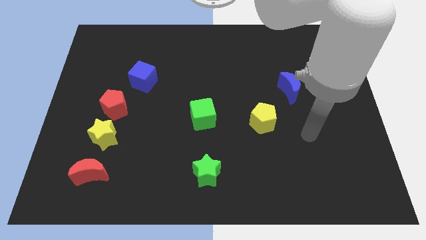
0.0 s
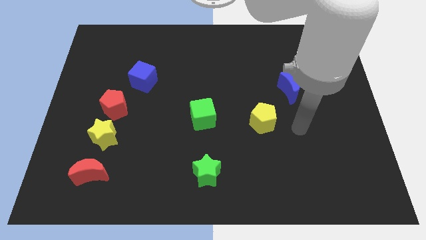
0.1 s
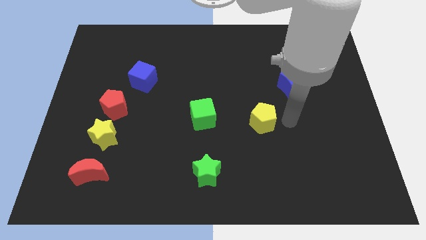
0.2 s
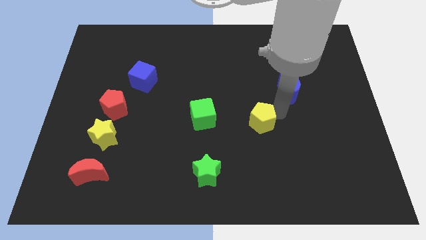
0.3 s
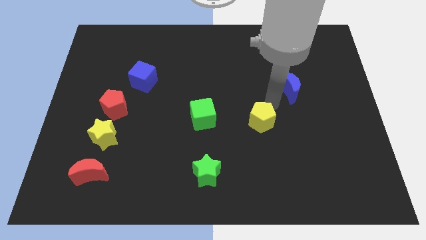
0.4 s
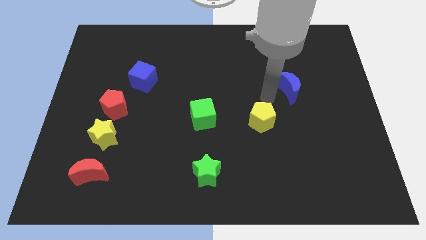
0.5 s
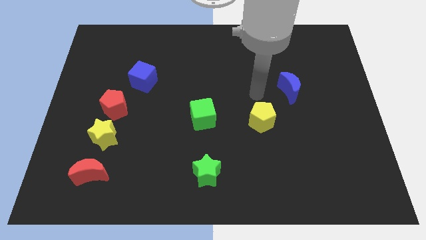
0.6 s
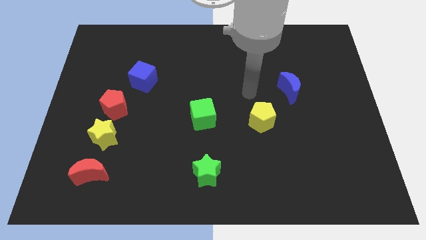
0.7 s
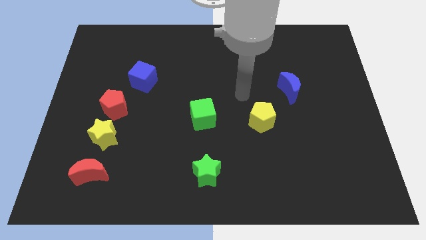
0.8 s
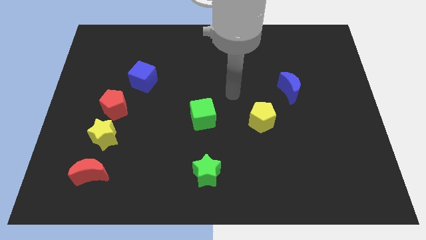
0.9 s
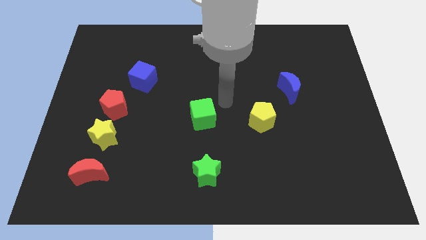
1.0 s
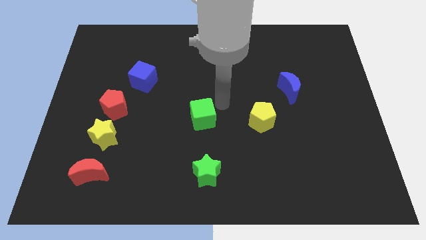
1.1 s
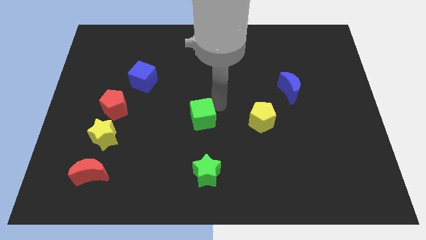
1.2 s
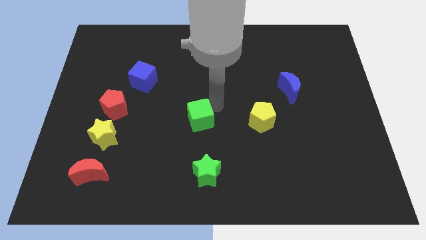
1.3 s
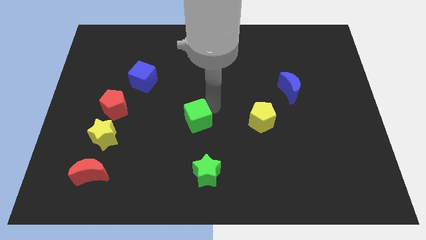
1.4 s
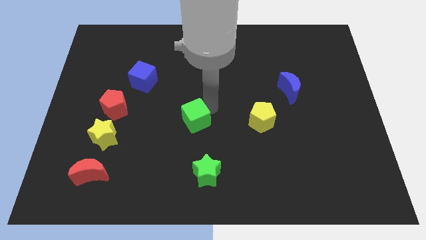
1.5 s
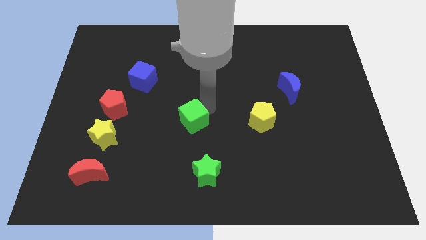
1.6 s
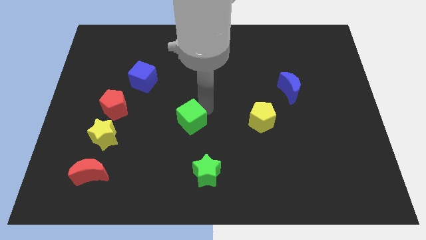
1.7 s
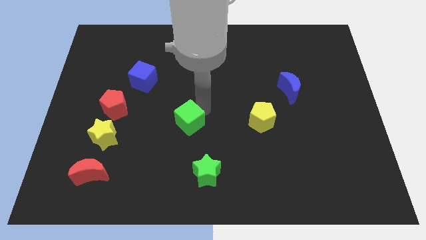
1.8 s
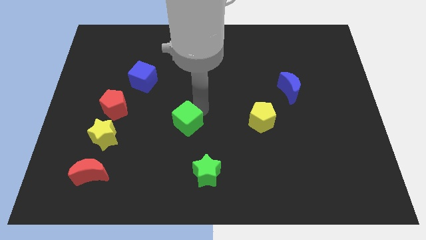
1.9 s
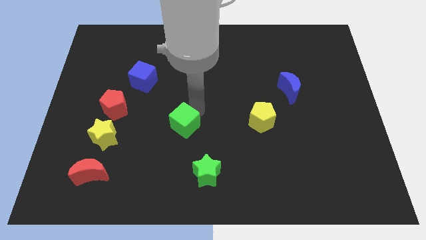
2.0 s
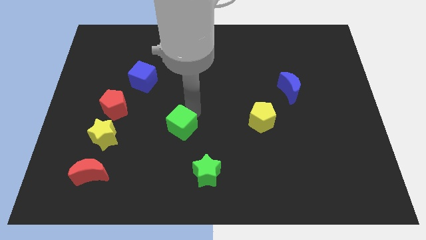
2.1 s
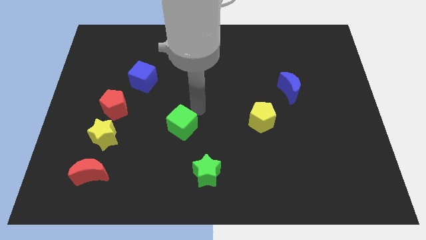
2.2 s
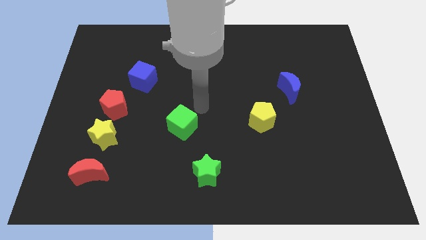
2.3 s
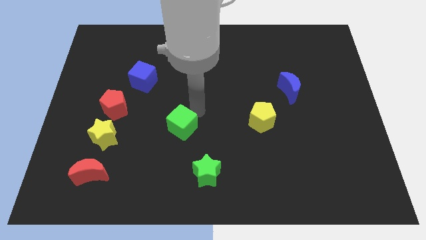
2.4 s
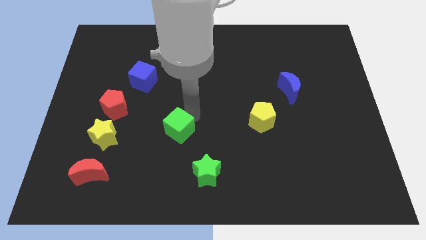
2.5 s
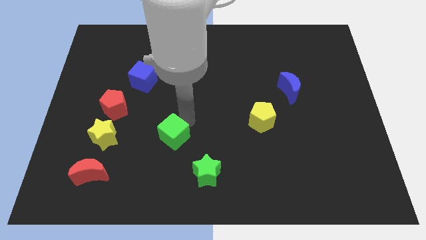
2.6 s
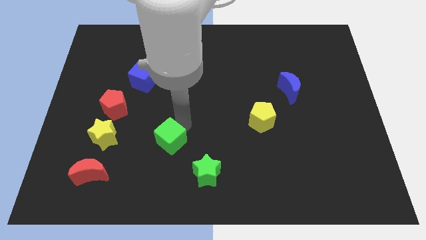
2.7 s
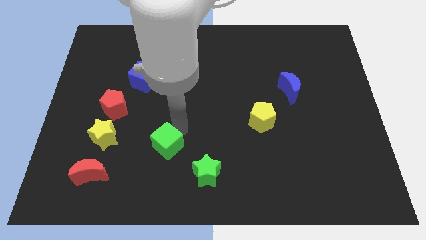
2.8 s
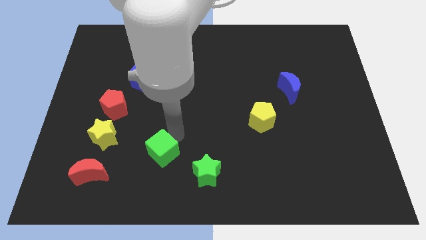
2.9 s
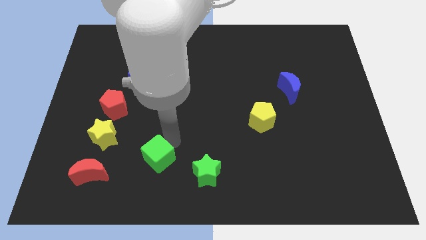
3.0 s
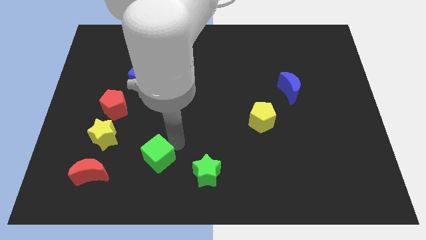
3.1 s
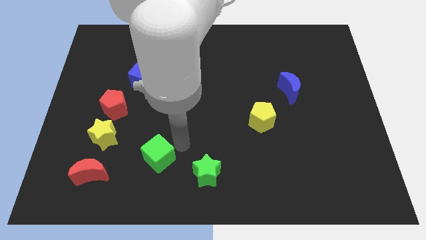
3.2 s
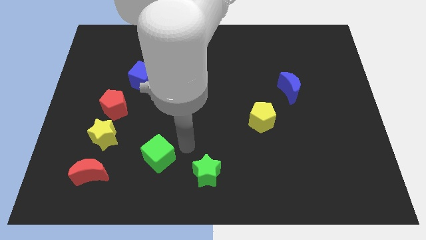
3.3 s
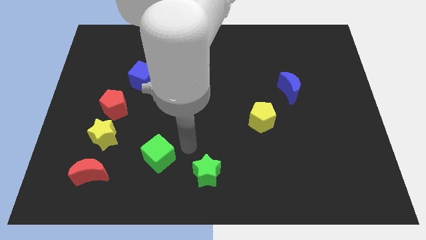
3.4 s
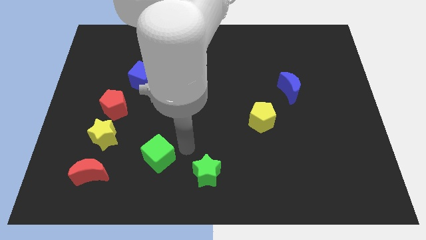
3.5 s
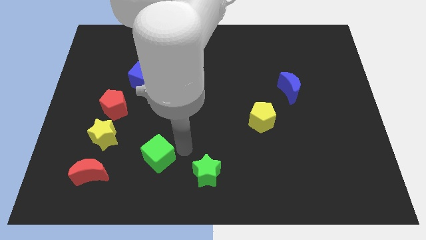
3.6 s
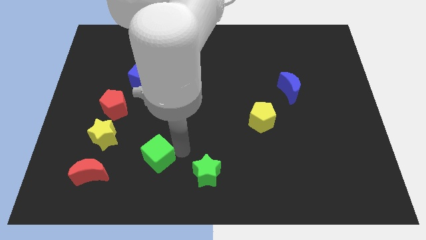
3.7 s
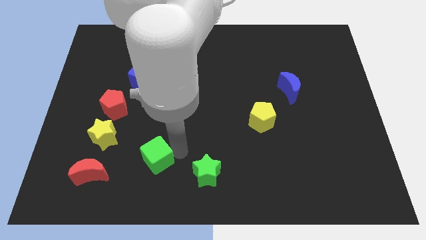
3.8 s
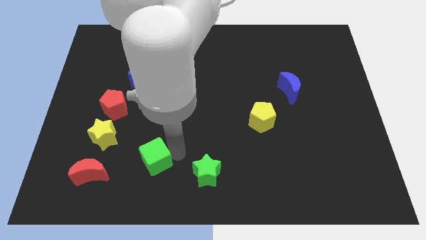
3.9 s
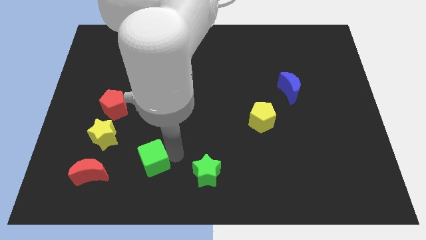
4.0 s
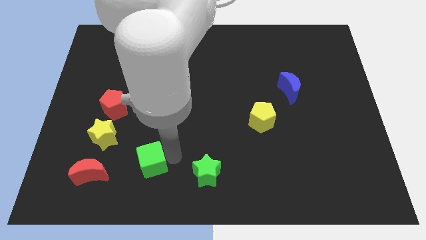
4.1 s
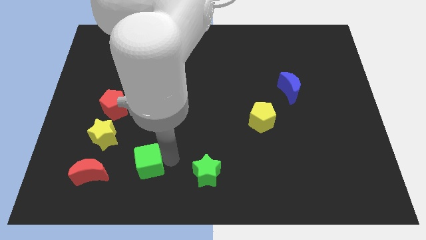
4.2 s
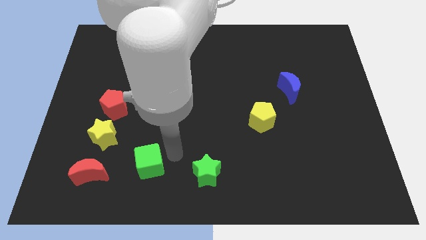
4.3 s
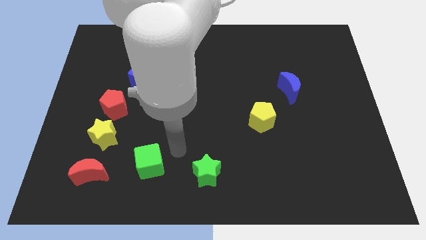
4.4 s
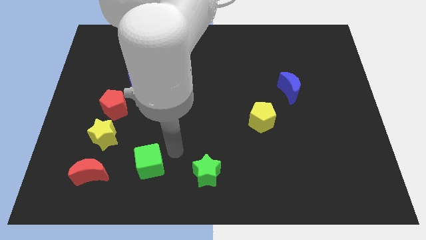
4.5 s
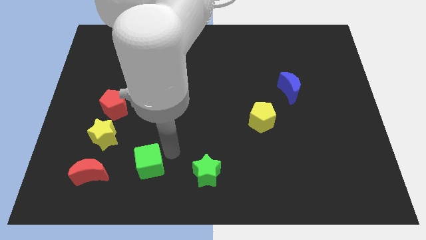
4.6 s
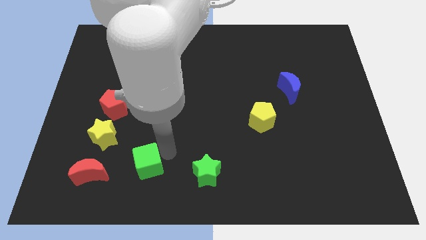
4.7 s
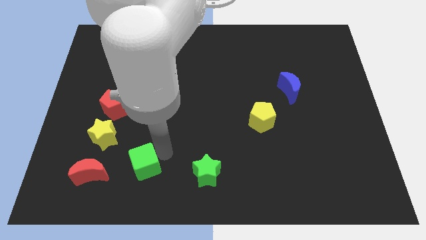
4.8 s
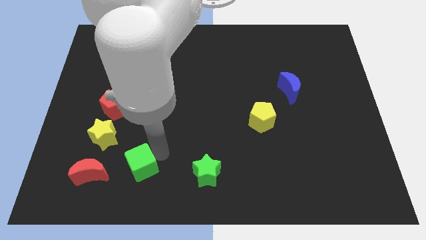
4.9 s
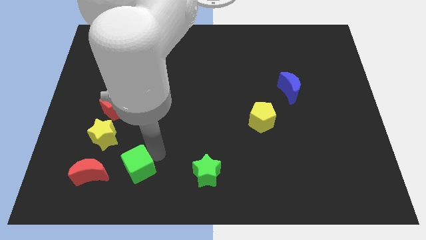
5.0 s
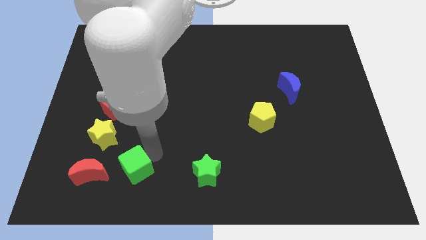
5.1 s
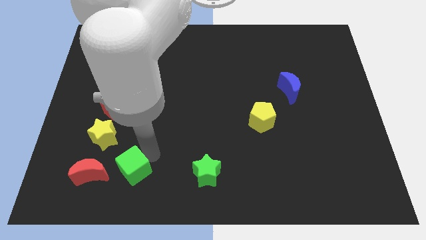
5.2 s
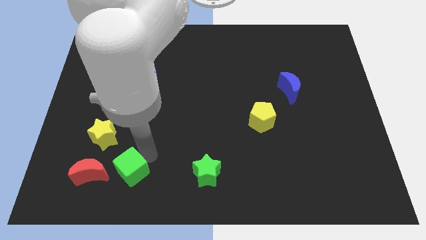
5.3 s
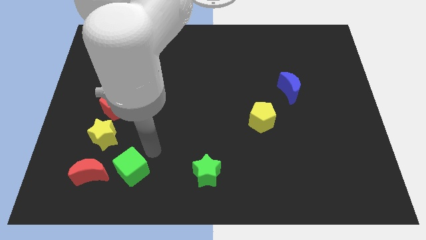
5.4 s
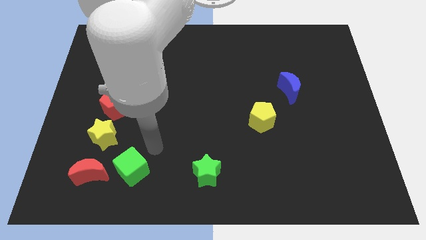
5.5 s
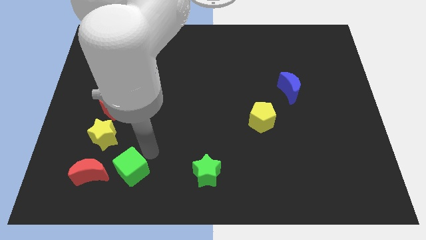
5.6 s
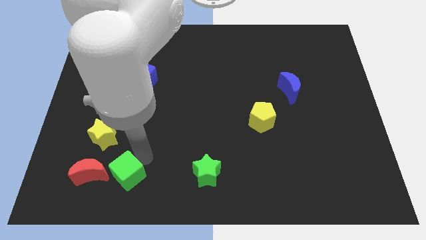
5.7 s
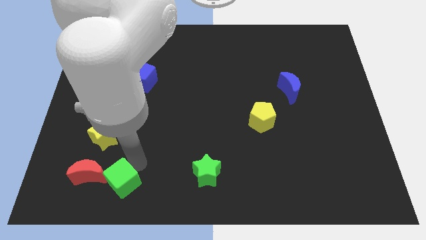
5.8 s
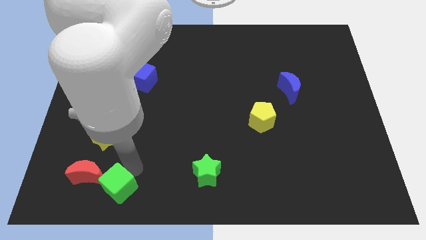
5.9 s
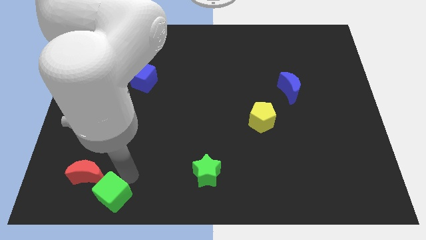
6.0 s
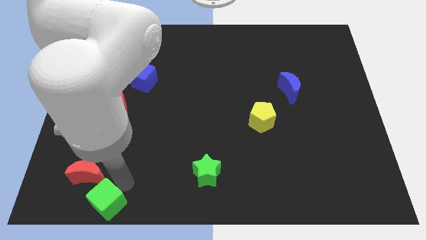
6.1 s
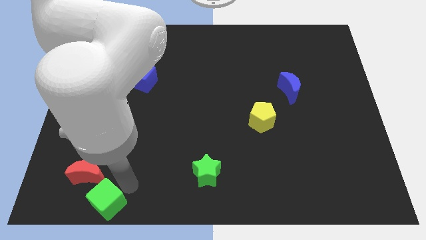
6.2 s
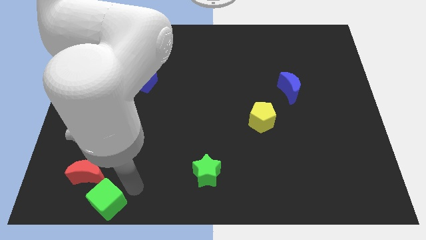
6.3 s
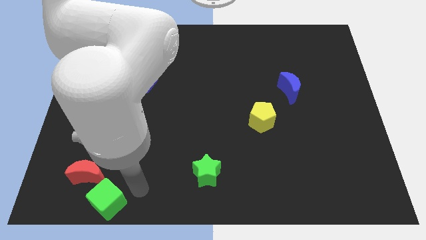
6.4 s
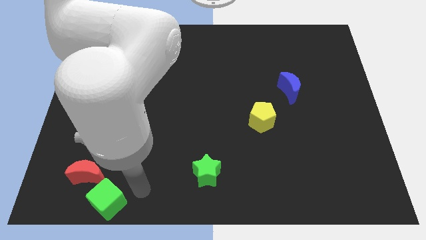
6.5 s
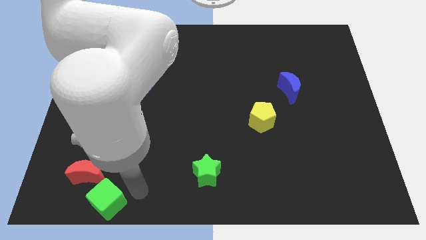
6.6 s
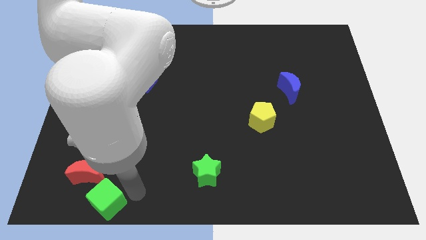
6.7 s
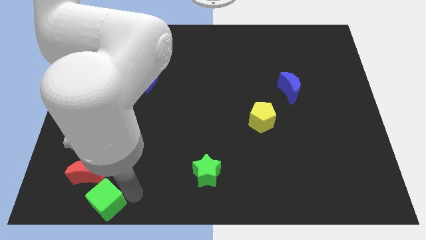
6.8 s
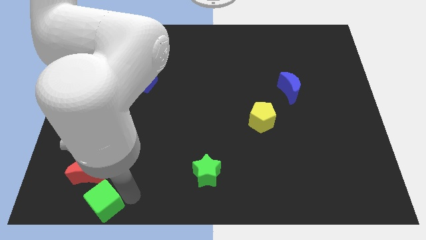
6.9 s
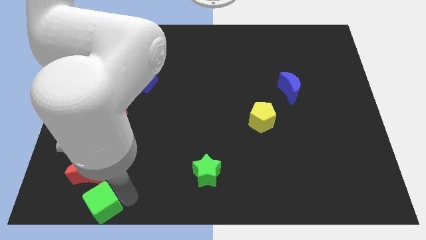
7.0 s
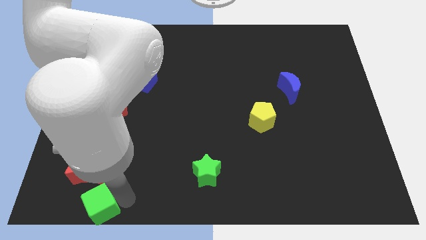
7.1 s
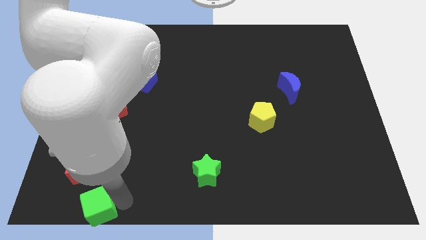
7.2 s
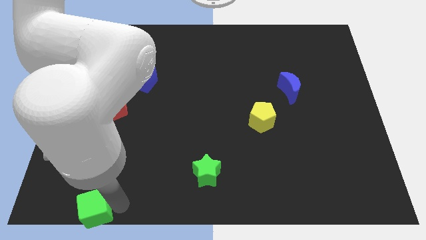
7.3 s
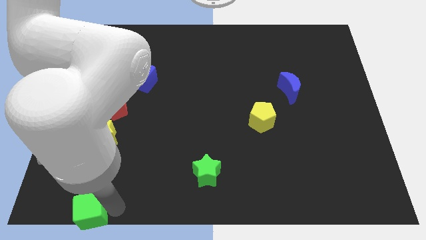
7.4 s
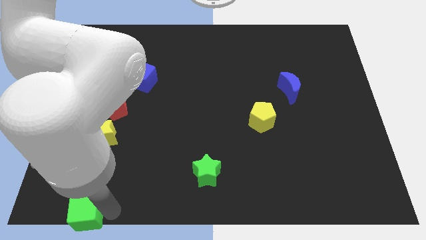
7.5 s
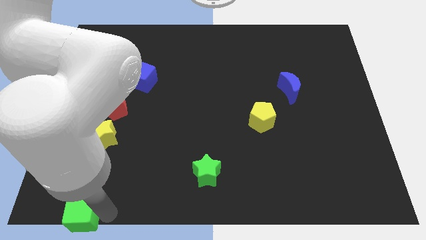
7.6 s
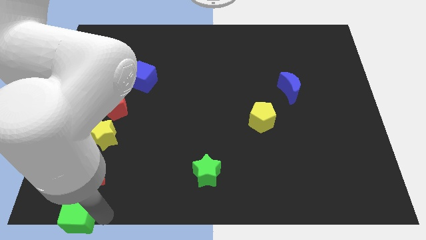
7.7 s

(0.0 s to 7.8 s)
push the green cube to the bottom left
